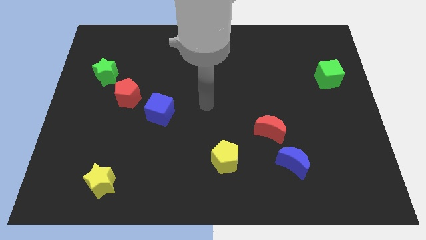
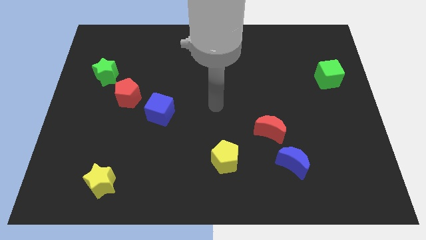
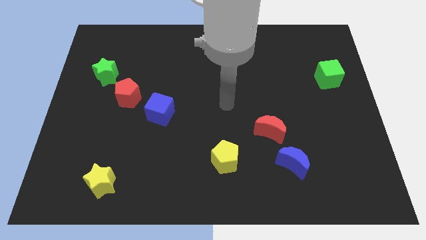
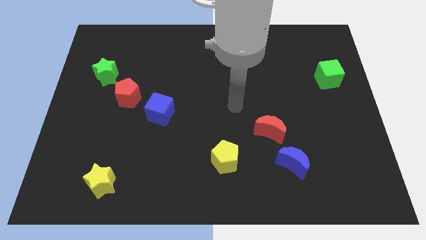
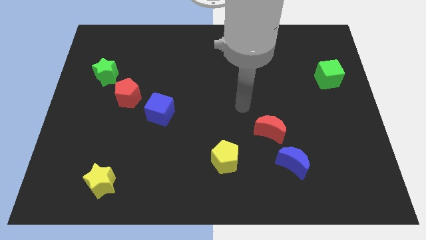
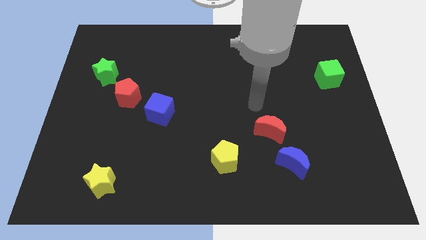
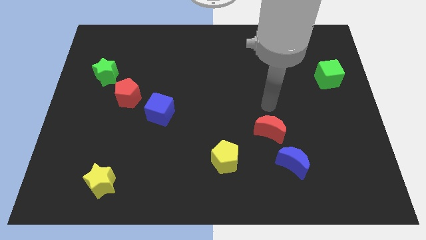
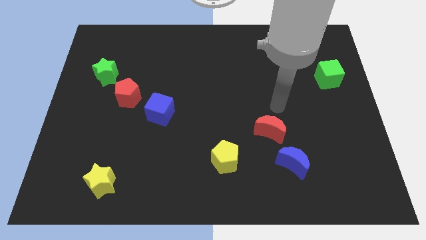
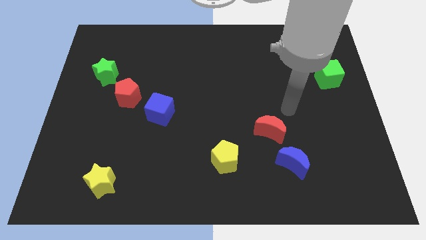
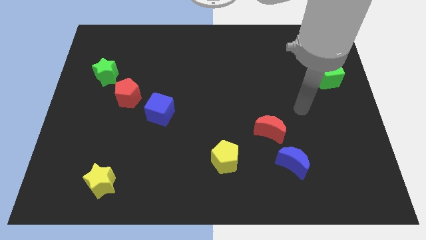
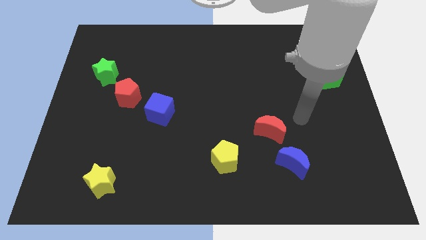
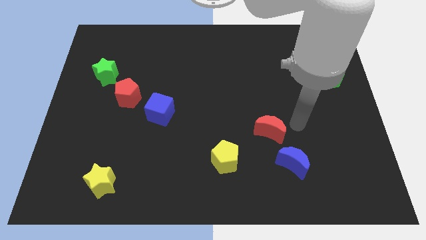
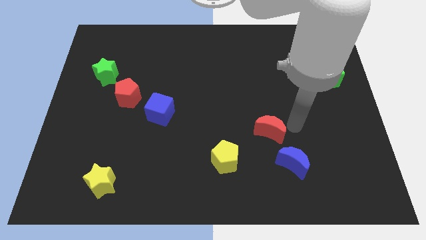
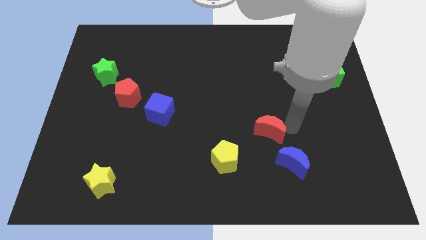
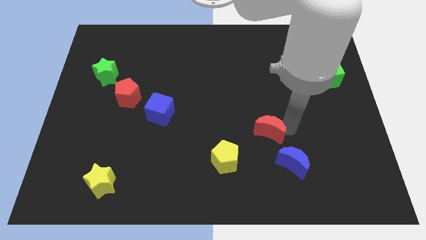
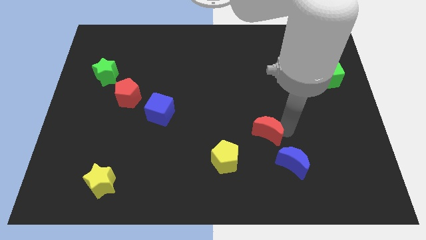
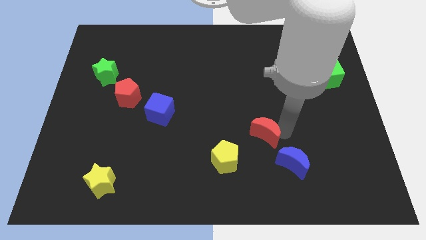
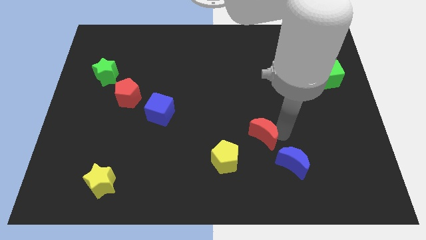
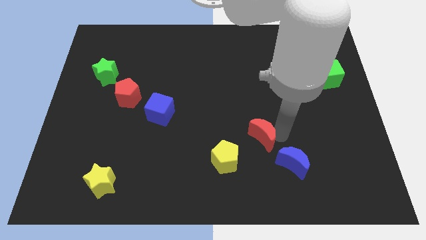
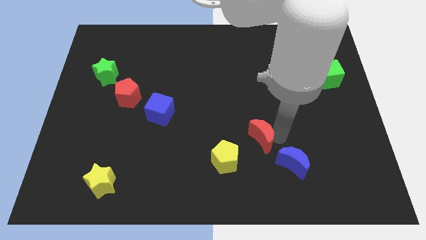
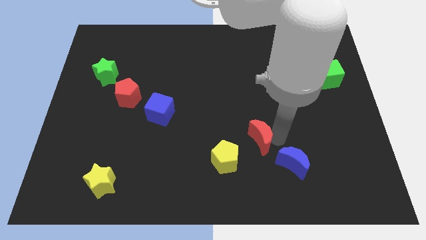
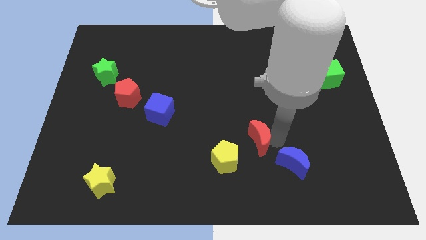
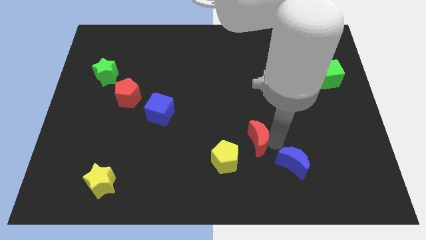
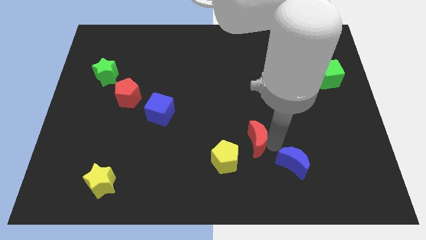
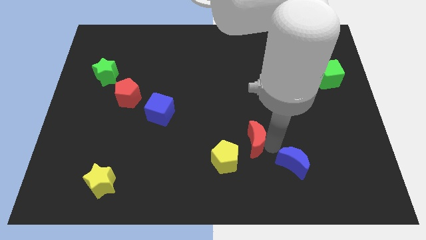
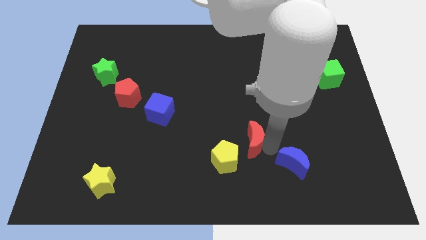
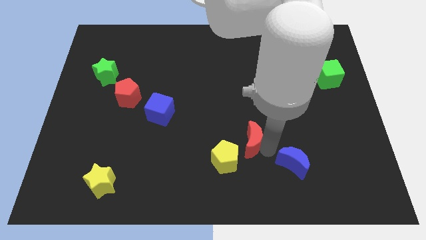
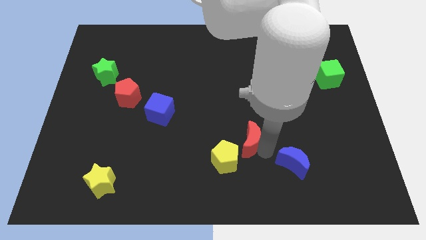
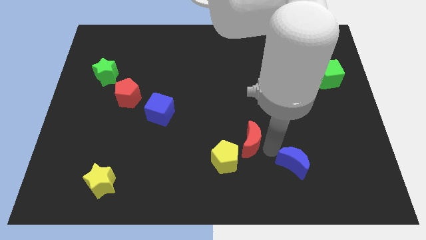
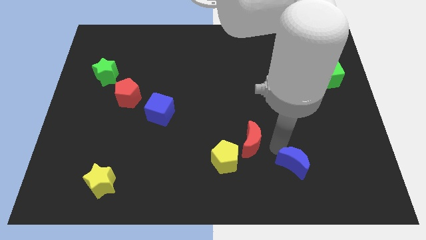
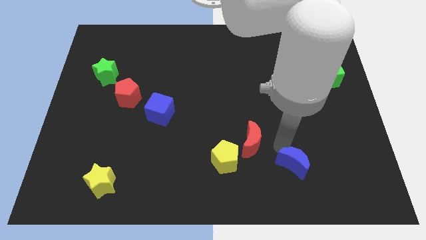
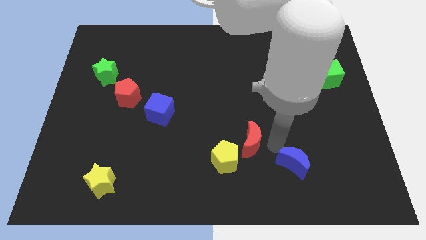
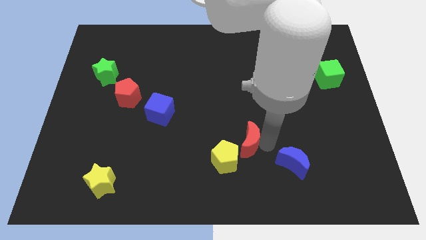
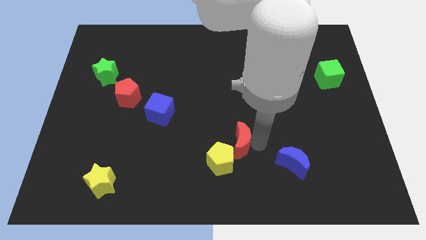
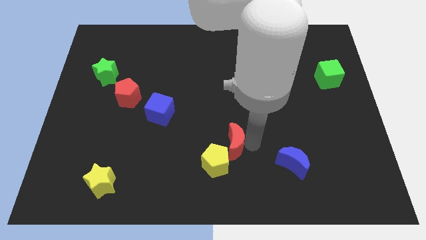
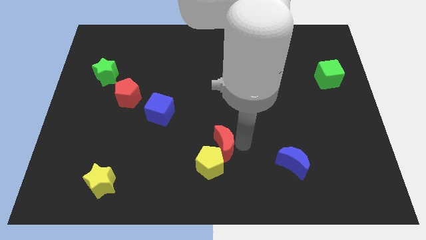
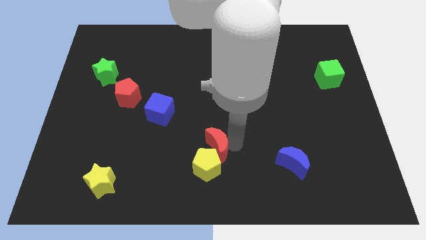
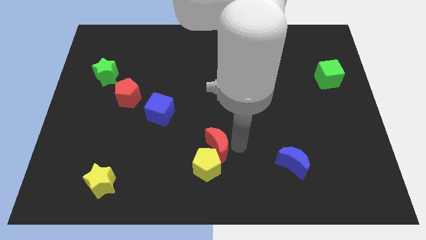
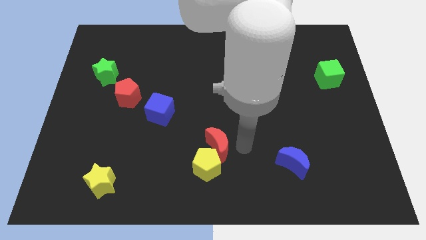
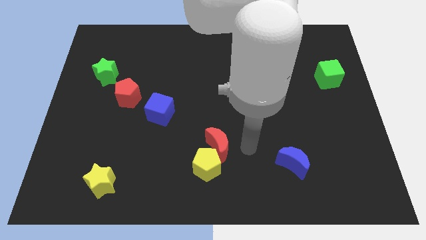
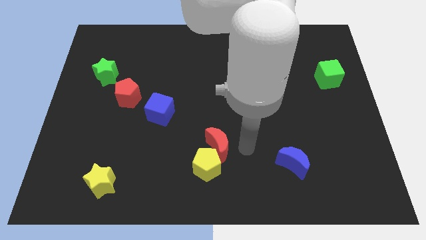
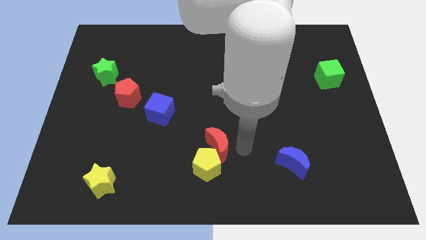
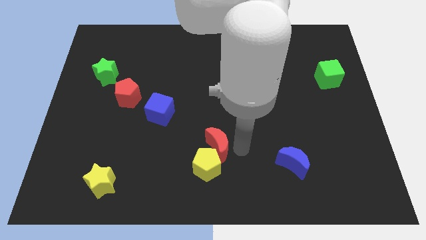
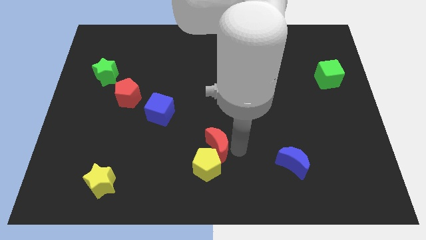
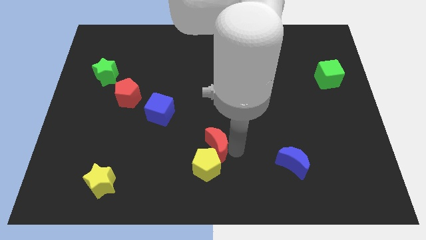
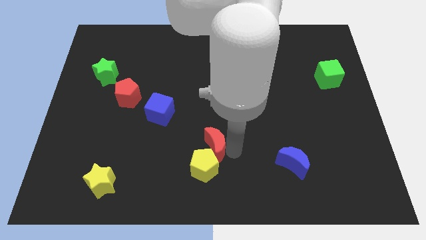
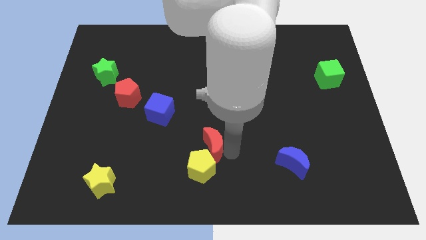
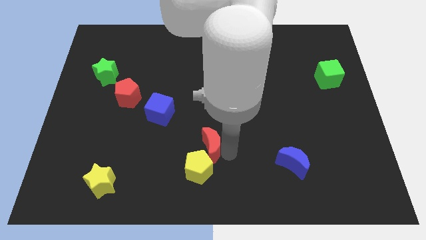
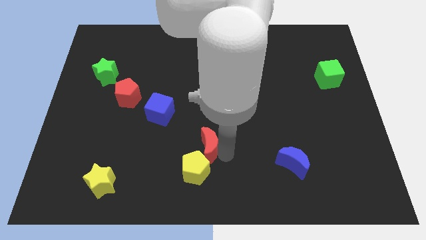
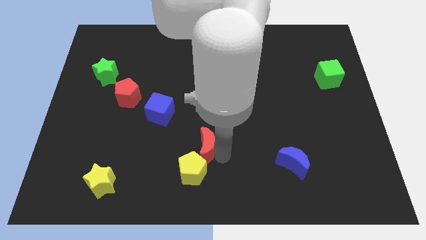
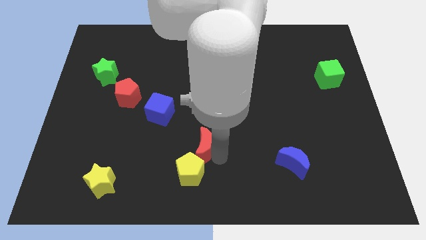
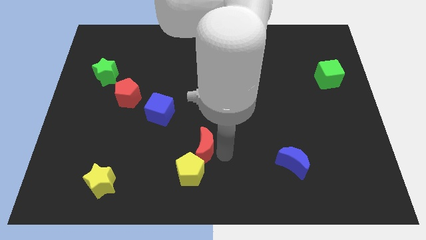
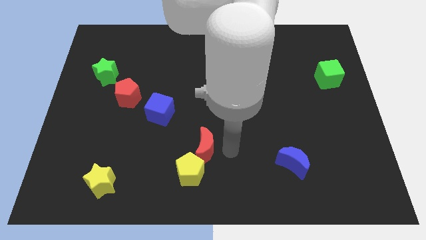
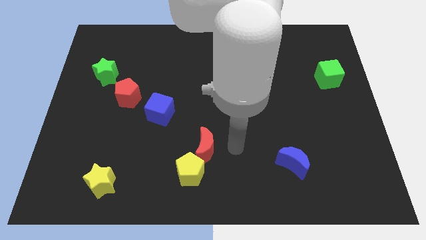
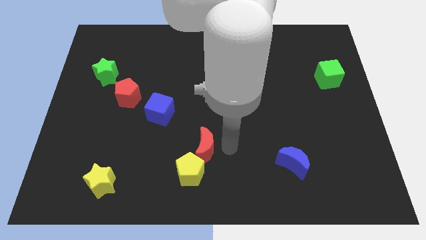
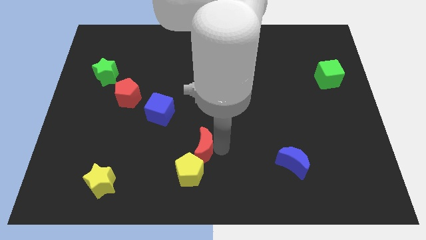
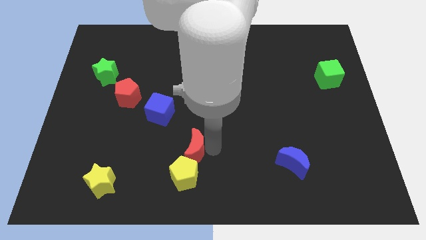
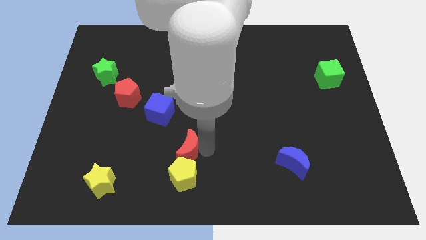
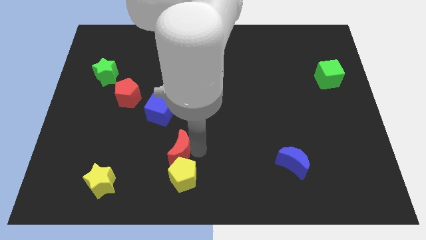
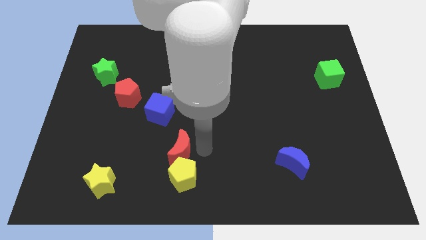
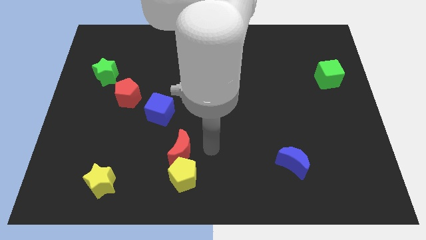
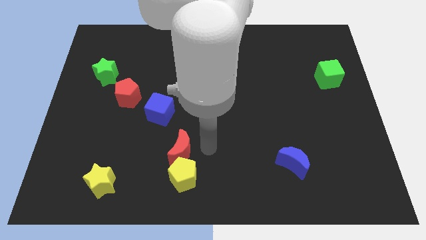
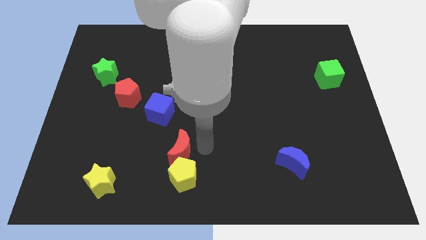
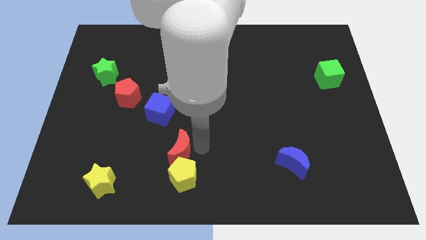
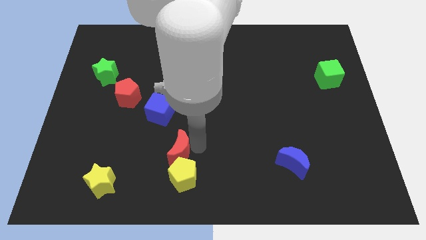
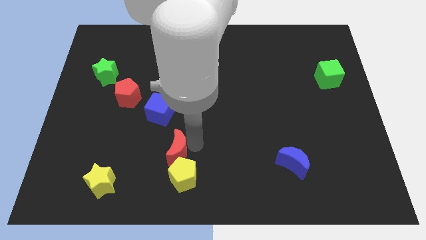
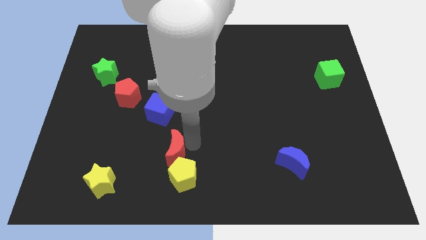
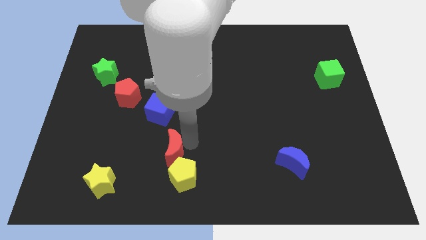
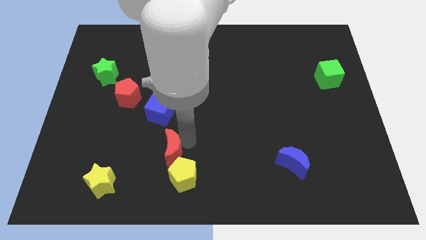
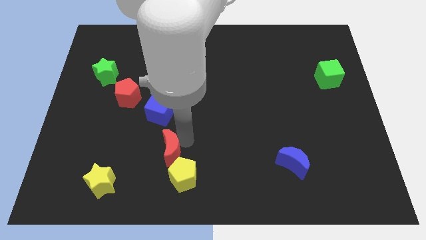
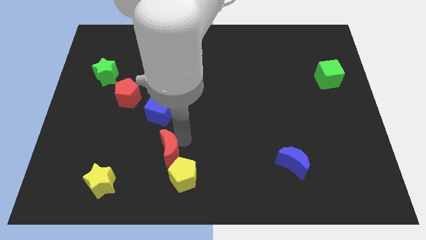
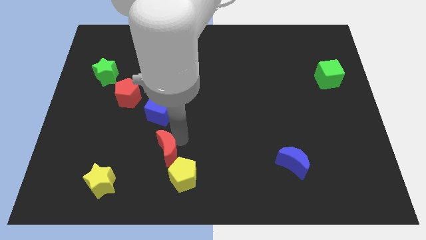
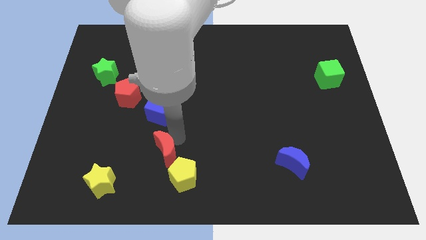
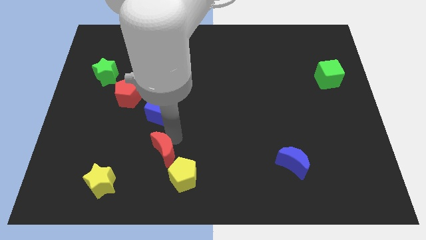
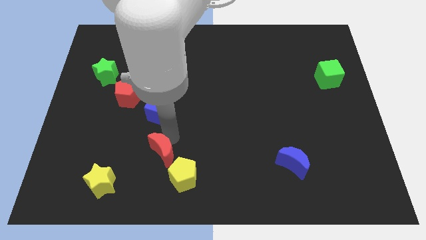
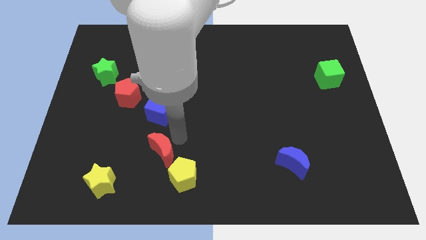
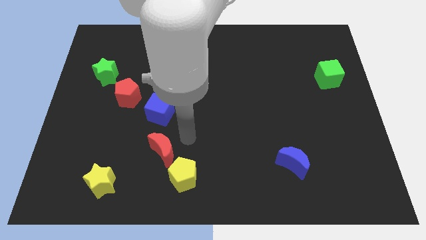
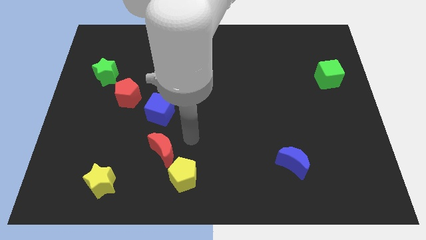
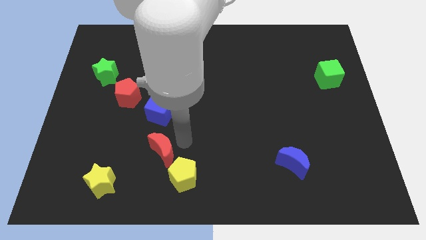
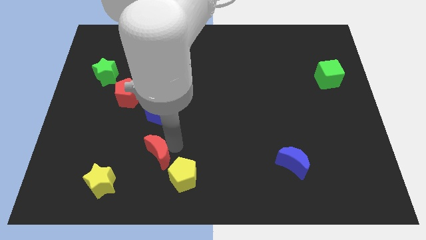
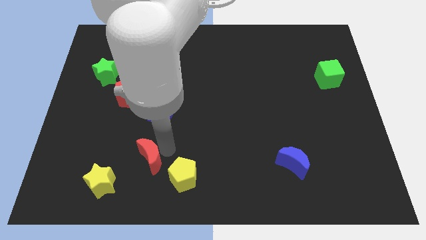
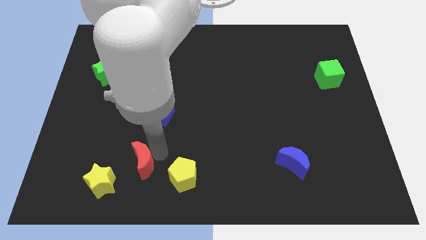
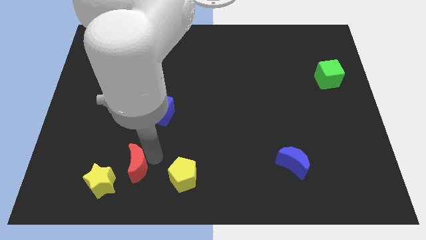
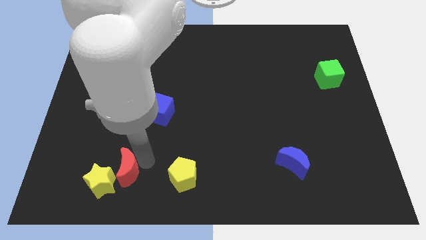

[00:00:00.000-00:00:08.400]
move the red moon towards the yellow star
